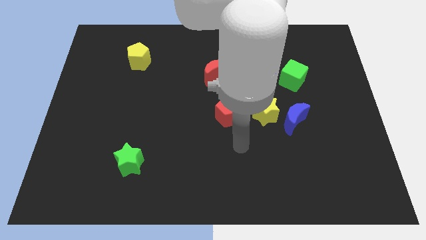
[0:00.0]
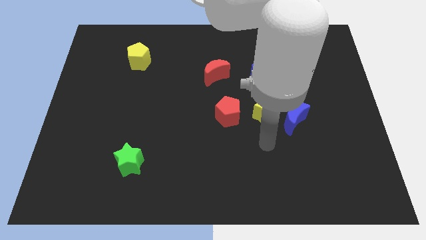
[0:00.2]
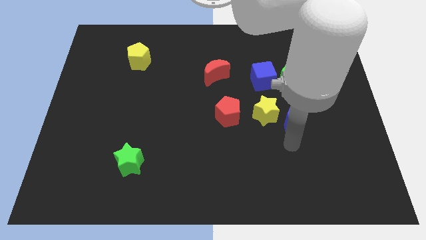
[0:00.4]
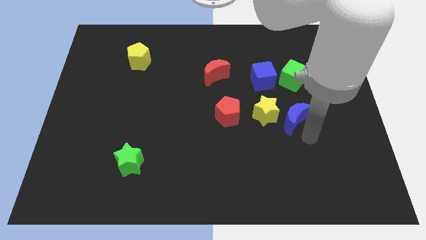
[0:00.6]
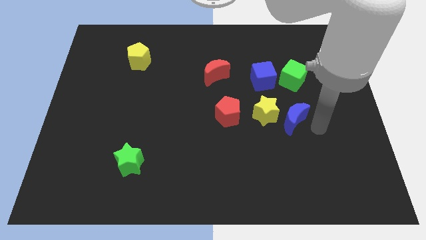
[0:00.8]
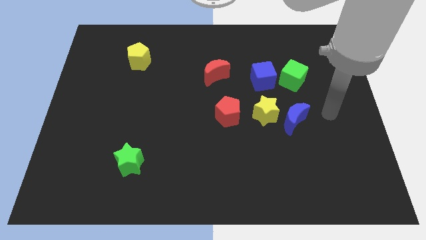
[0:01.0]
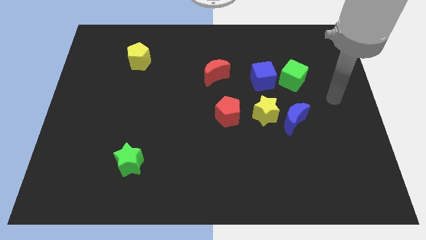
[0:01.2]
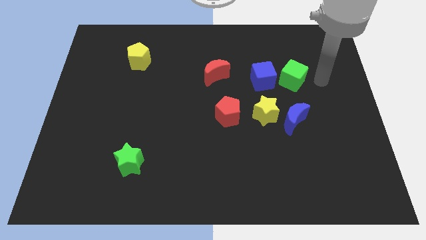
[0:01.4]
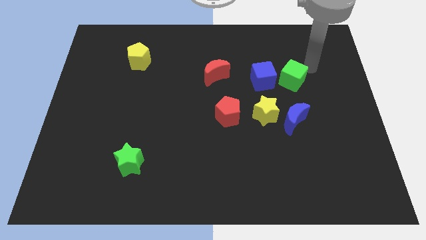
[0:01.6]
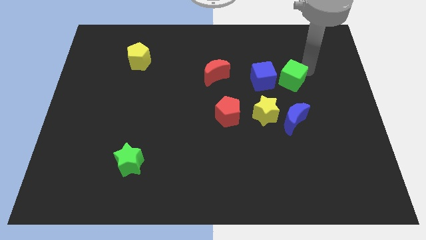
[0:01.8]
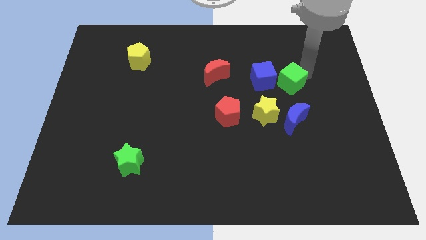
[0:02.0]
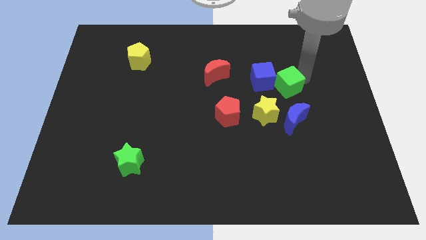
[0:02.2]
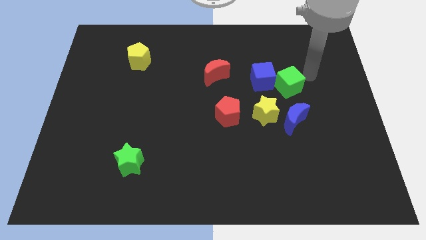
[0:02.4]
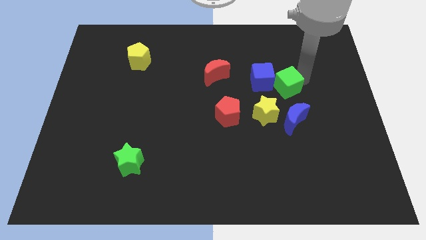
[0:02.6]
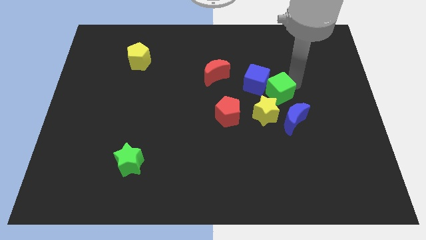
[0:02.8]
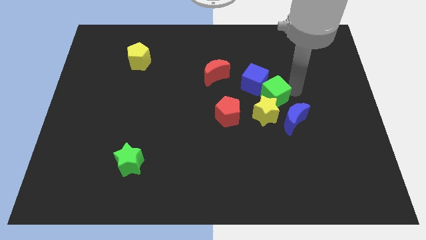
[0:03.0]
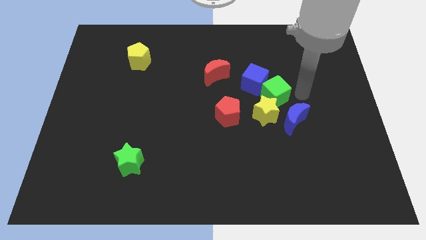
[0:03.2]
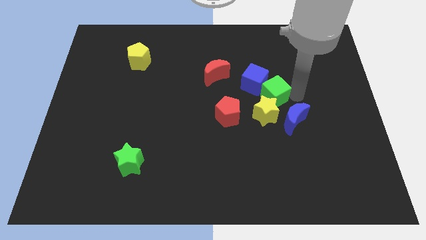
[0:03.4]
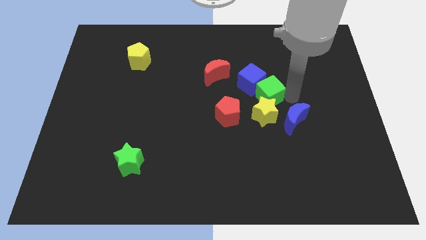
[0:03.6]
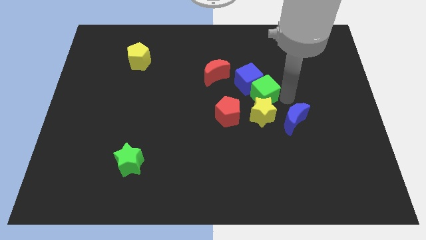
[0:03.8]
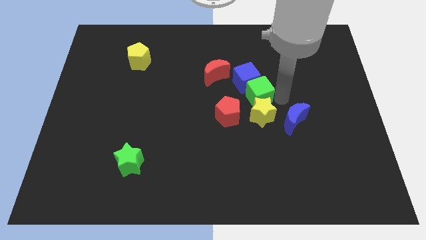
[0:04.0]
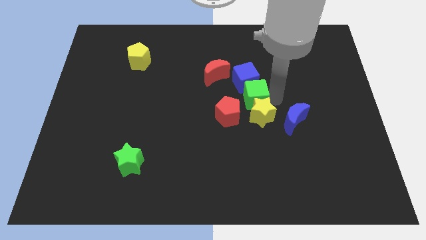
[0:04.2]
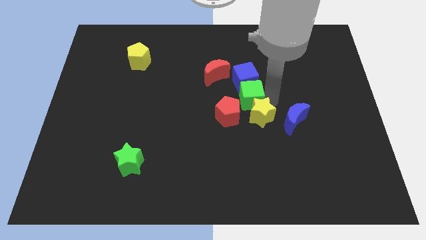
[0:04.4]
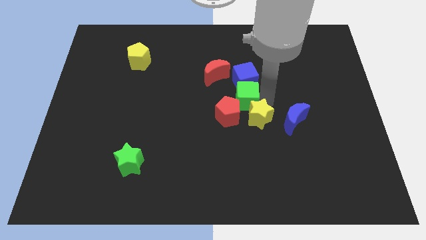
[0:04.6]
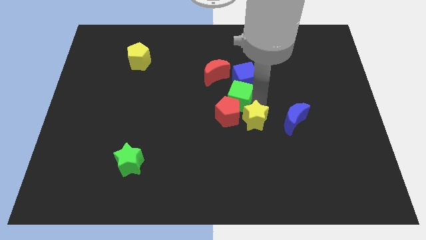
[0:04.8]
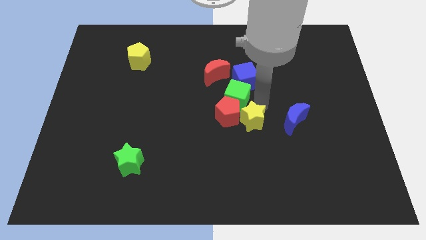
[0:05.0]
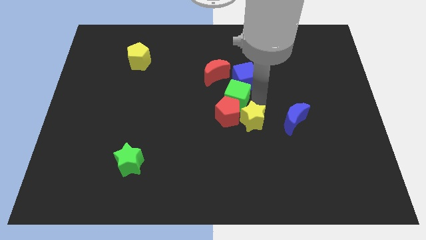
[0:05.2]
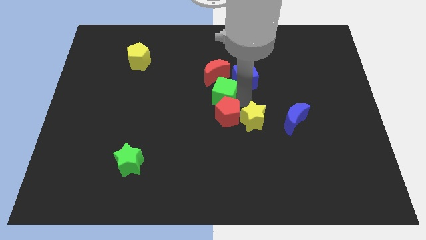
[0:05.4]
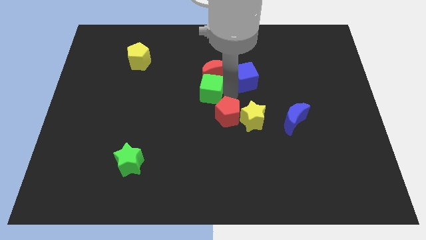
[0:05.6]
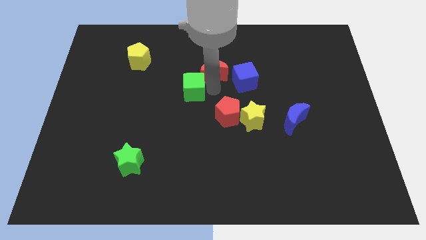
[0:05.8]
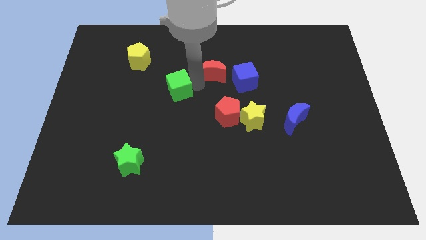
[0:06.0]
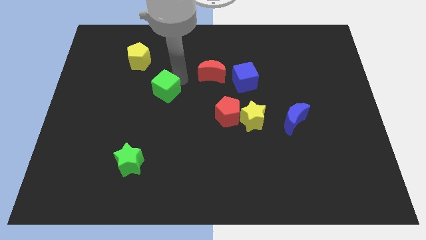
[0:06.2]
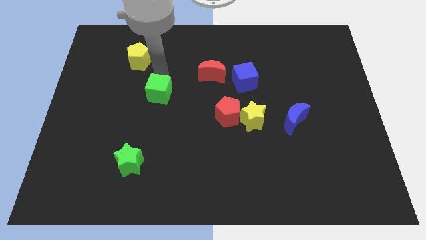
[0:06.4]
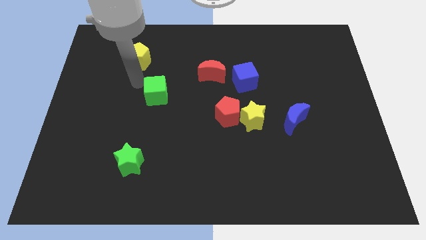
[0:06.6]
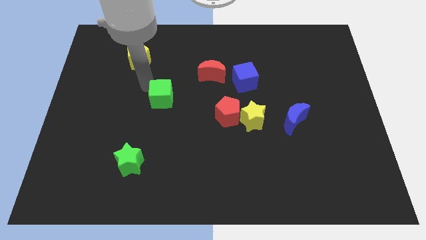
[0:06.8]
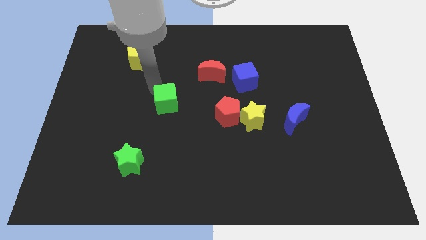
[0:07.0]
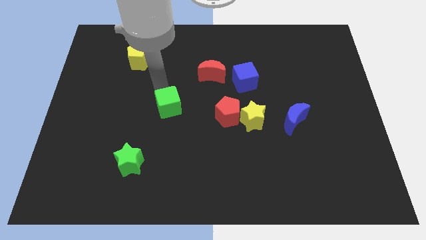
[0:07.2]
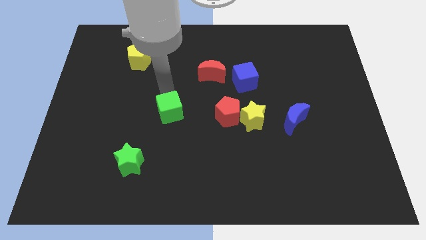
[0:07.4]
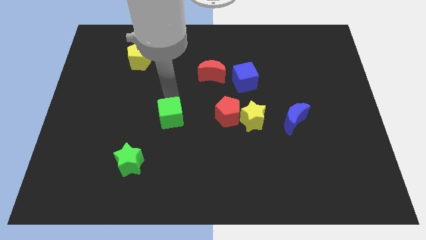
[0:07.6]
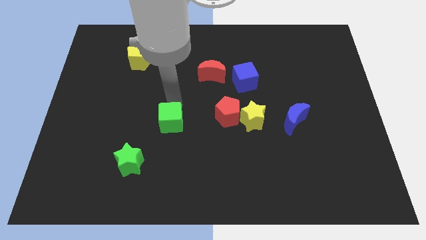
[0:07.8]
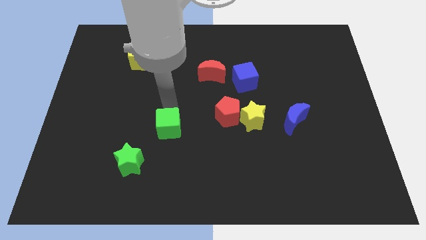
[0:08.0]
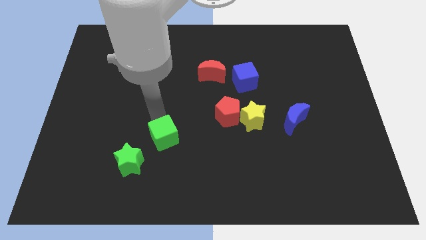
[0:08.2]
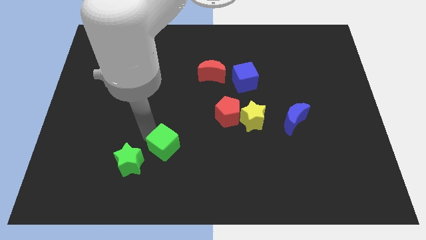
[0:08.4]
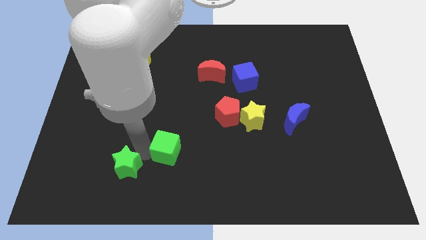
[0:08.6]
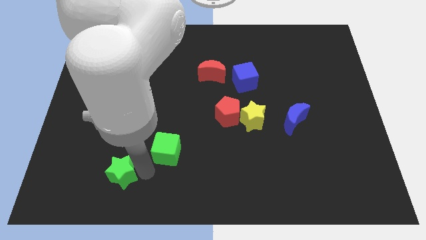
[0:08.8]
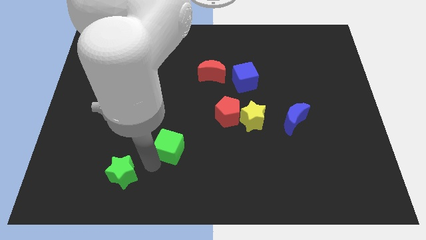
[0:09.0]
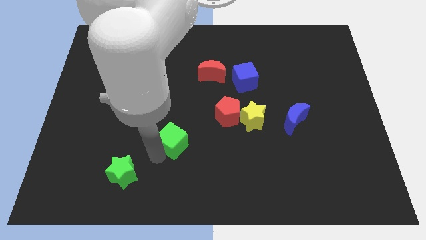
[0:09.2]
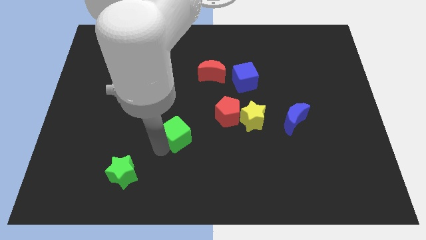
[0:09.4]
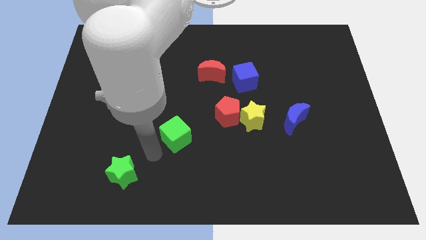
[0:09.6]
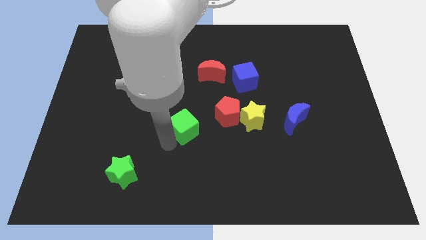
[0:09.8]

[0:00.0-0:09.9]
put the green cube to the bottom left side of the red pentagon

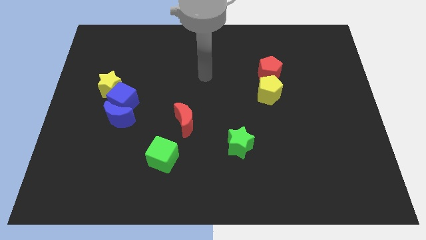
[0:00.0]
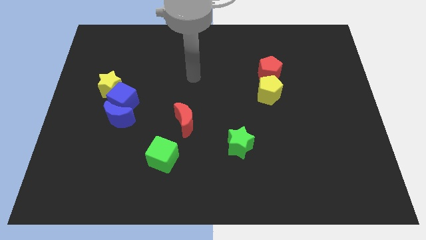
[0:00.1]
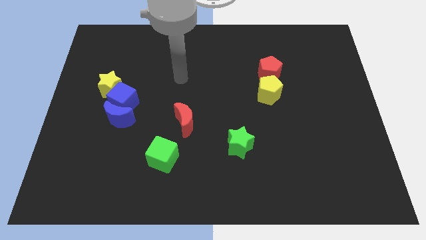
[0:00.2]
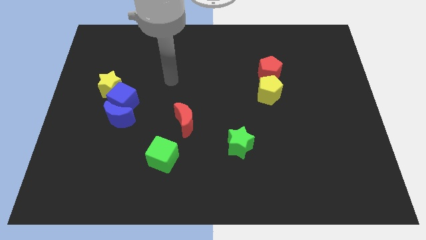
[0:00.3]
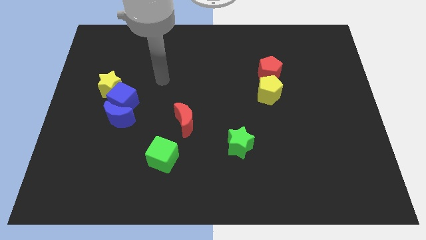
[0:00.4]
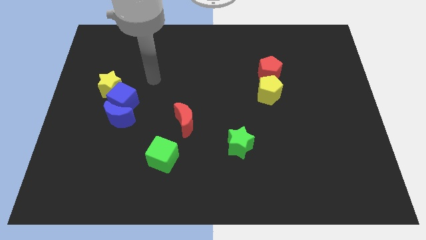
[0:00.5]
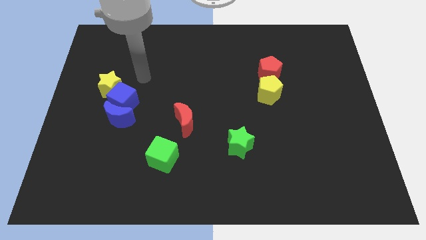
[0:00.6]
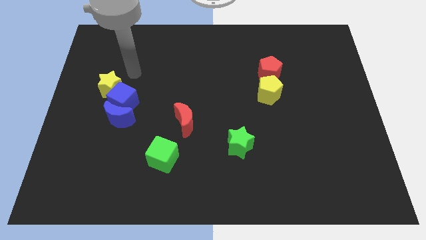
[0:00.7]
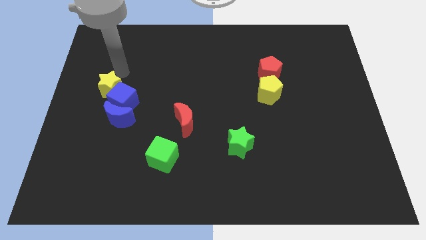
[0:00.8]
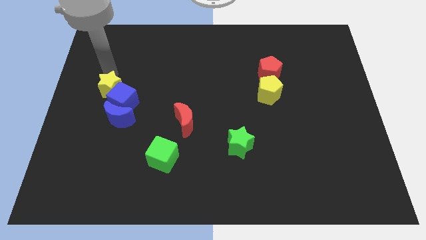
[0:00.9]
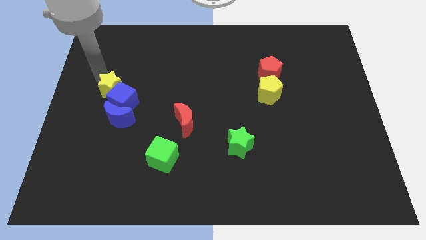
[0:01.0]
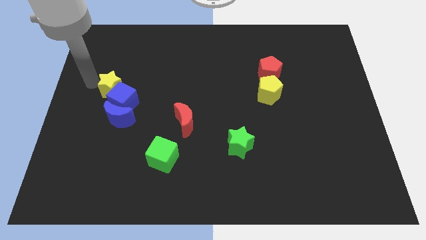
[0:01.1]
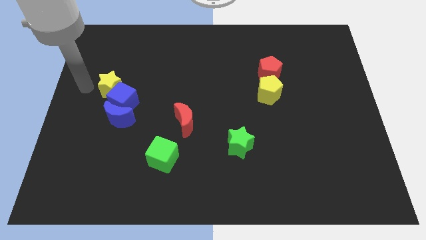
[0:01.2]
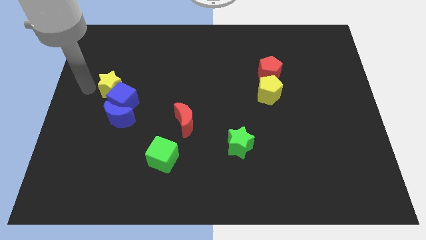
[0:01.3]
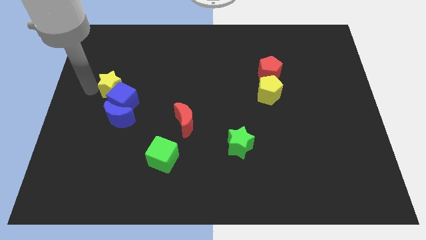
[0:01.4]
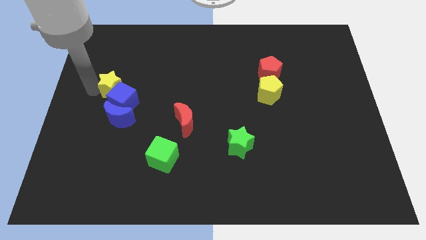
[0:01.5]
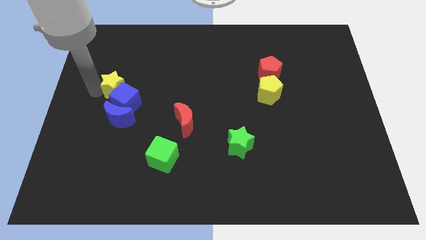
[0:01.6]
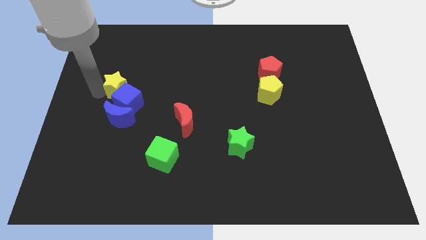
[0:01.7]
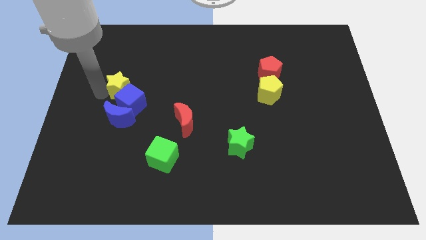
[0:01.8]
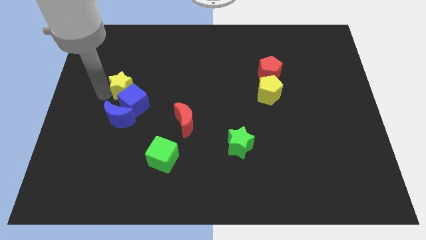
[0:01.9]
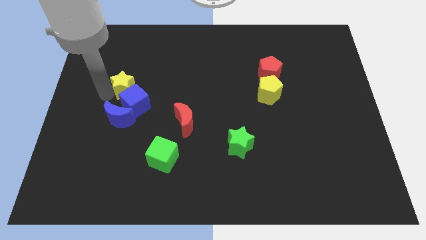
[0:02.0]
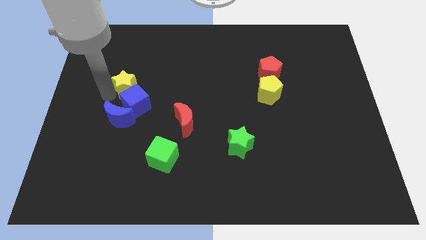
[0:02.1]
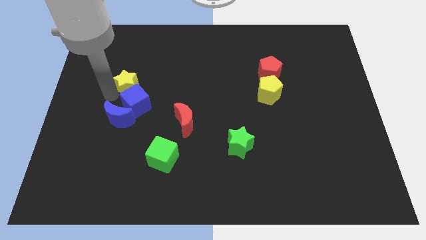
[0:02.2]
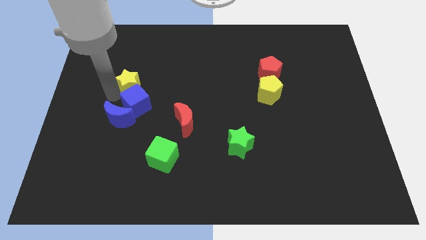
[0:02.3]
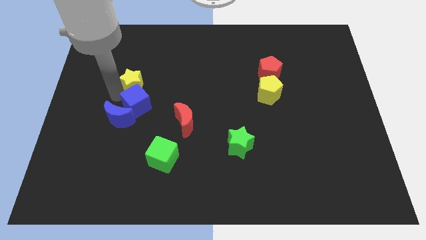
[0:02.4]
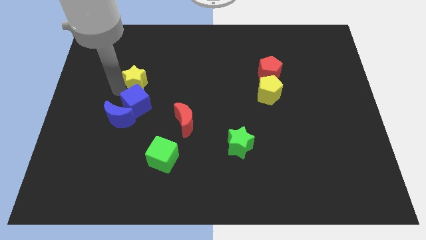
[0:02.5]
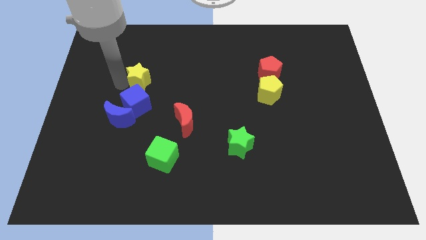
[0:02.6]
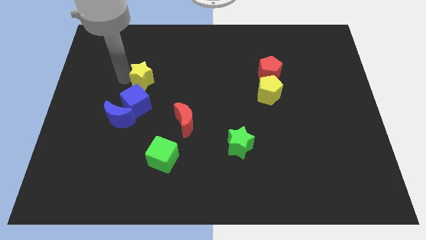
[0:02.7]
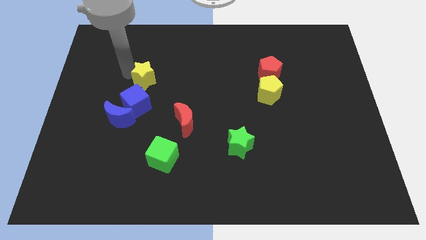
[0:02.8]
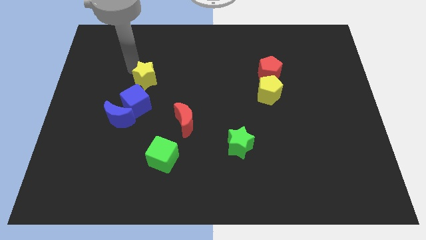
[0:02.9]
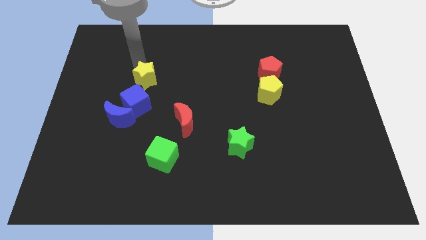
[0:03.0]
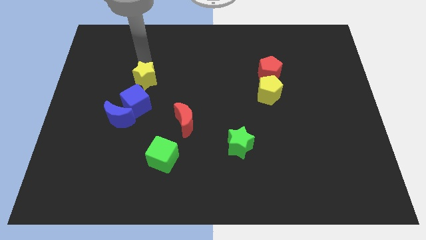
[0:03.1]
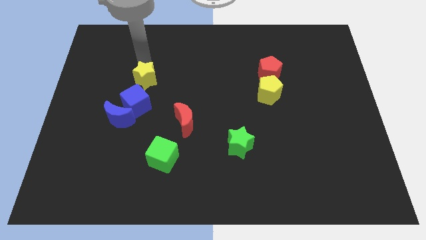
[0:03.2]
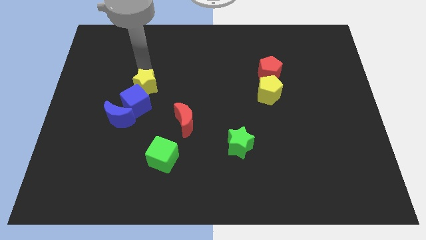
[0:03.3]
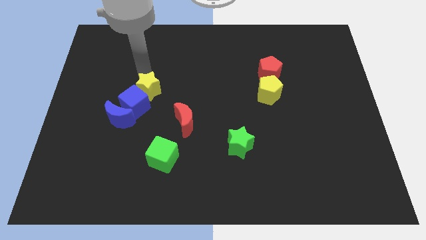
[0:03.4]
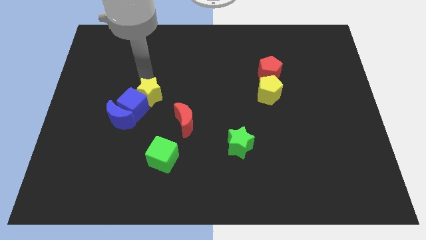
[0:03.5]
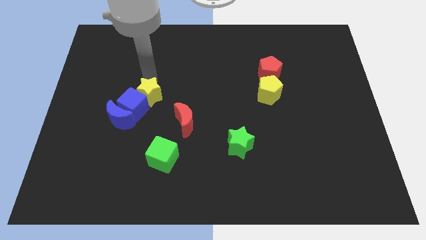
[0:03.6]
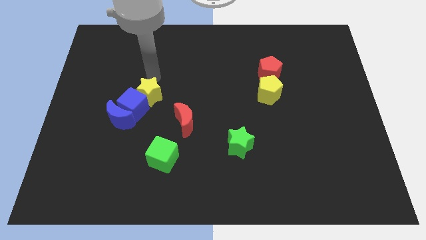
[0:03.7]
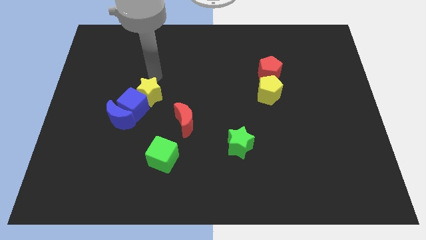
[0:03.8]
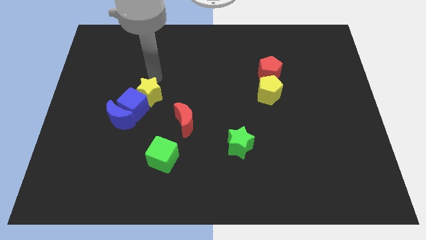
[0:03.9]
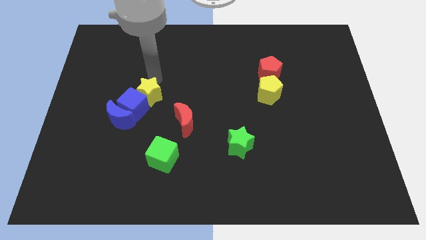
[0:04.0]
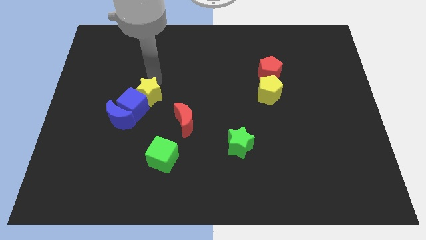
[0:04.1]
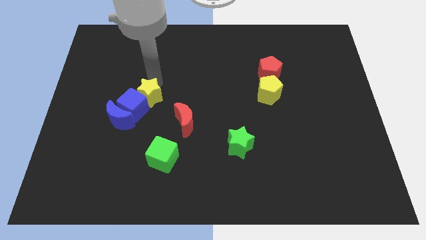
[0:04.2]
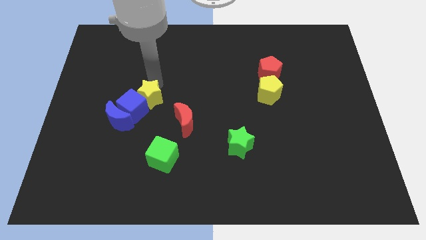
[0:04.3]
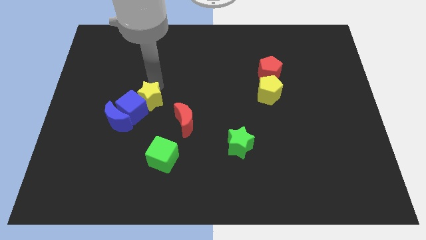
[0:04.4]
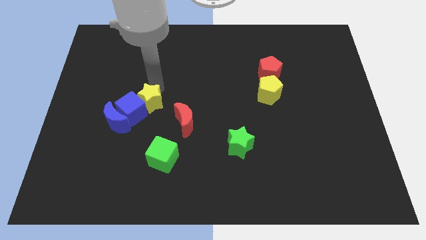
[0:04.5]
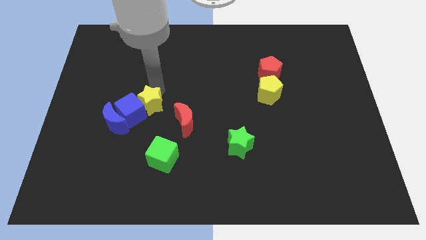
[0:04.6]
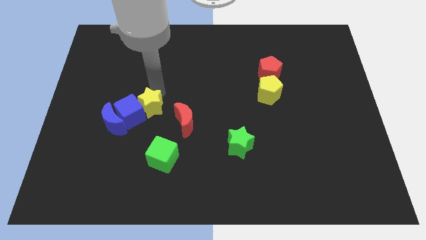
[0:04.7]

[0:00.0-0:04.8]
slide the yellow star left of the red moon
